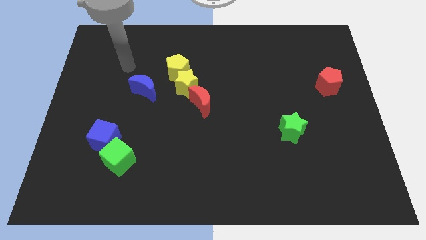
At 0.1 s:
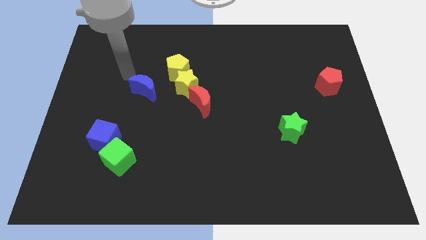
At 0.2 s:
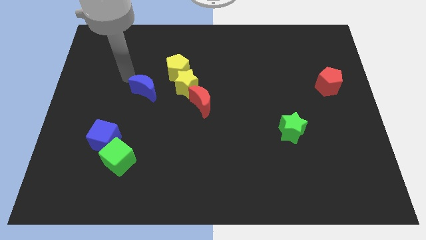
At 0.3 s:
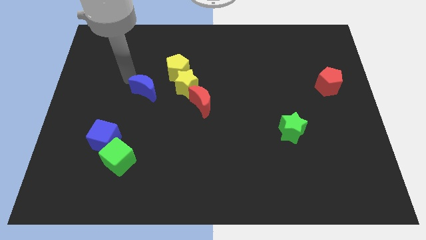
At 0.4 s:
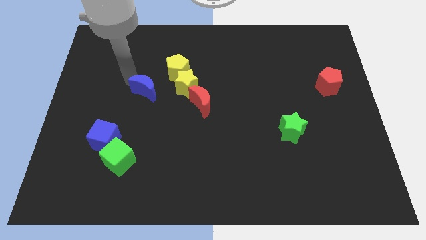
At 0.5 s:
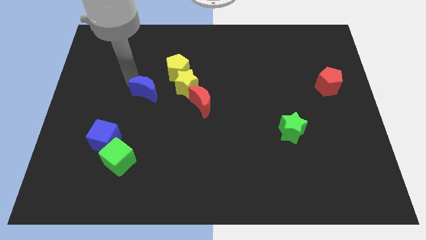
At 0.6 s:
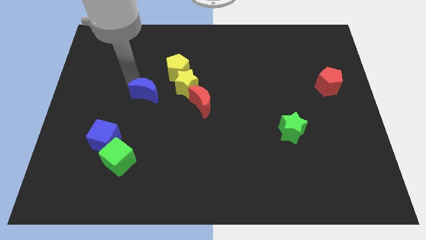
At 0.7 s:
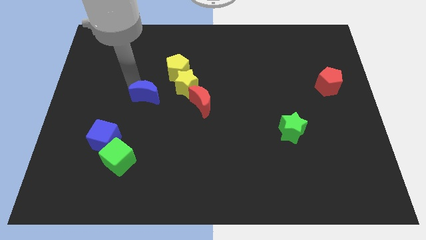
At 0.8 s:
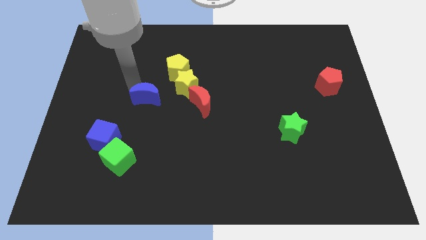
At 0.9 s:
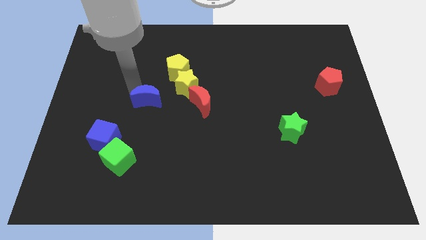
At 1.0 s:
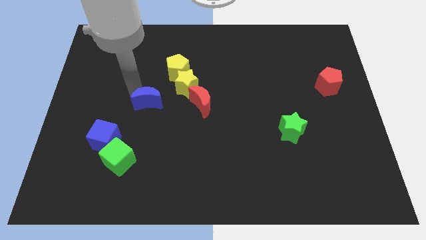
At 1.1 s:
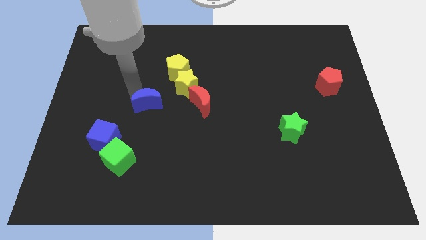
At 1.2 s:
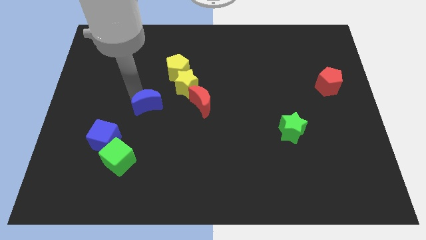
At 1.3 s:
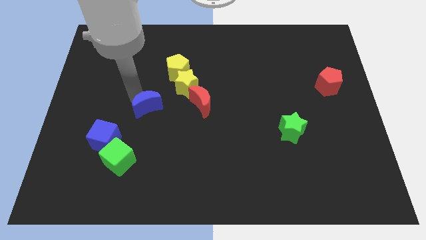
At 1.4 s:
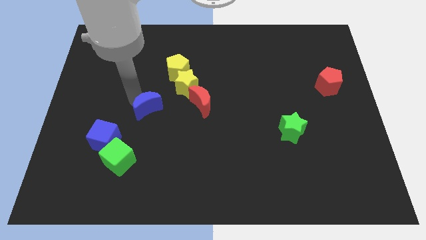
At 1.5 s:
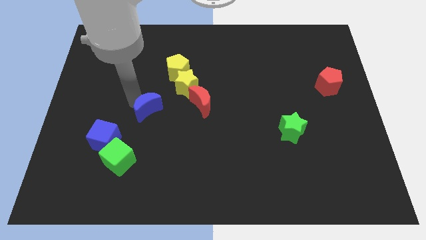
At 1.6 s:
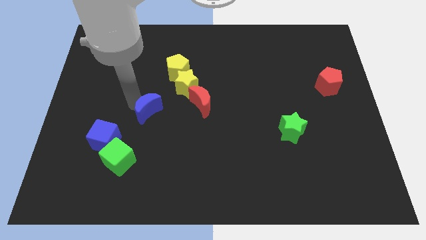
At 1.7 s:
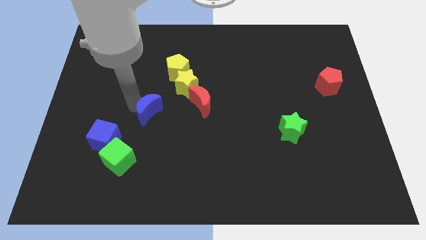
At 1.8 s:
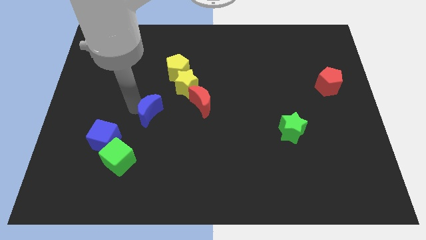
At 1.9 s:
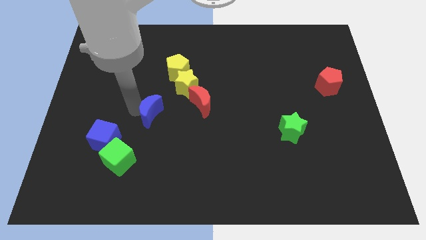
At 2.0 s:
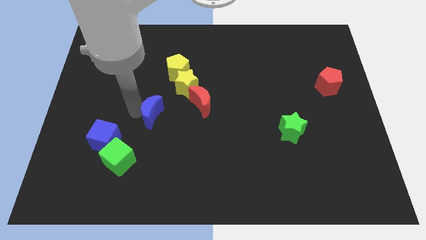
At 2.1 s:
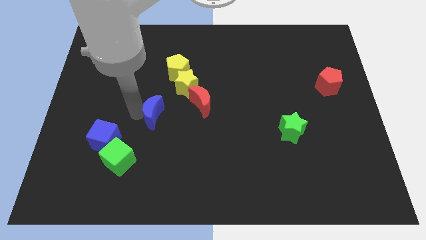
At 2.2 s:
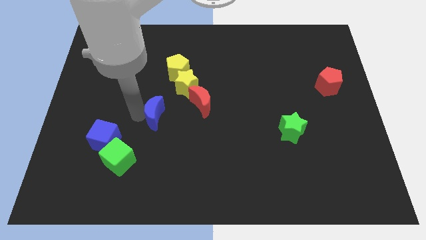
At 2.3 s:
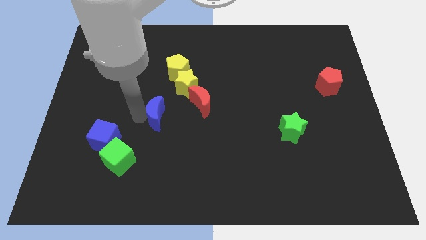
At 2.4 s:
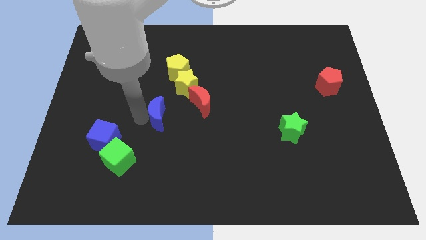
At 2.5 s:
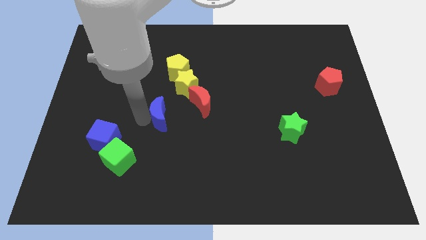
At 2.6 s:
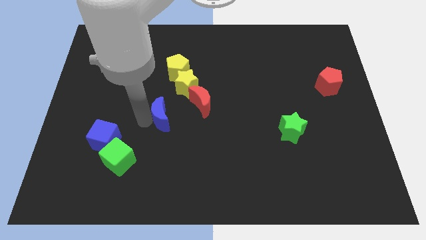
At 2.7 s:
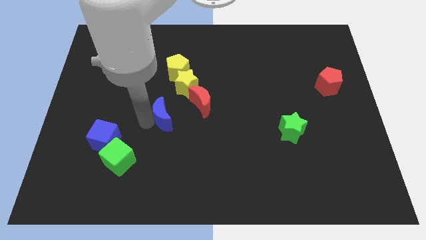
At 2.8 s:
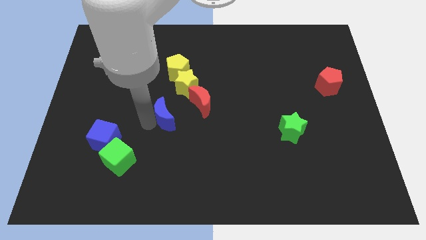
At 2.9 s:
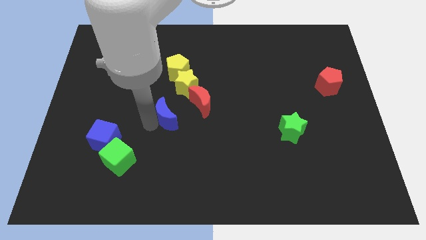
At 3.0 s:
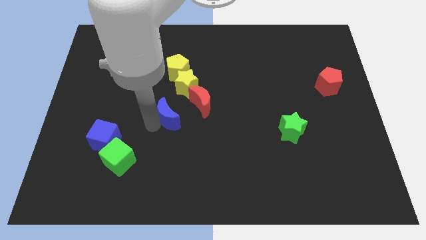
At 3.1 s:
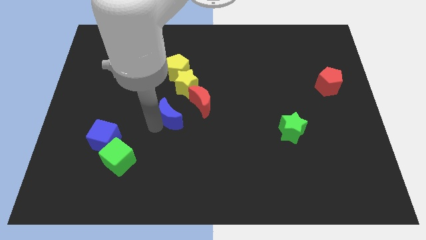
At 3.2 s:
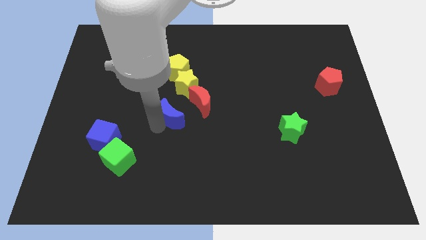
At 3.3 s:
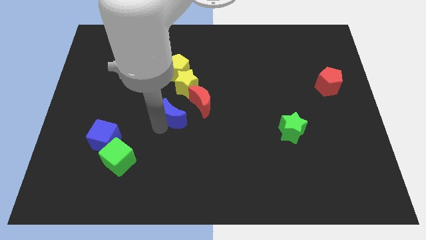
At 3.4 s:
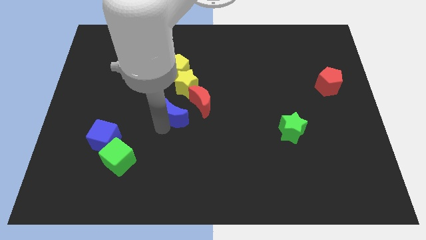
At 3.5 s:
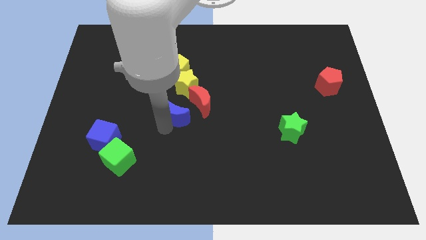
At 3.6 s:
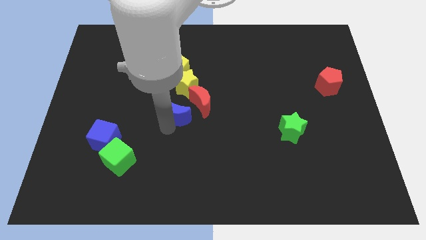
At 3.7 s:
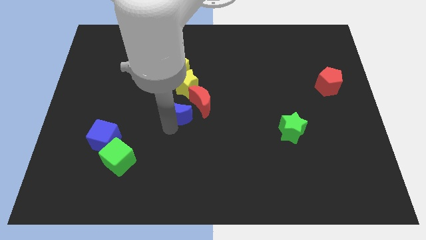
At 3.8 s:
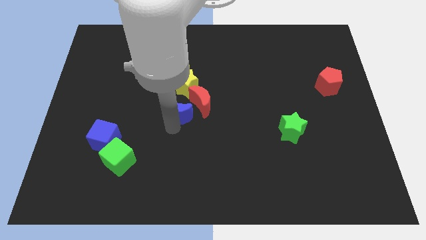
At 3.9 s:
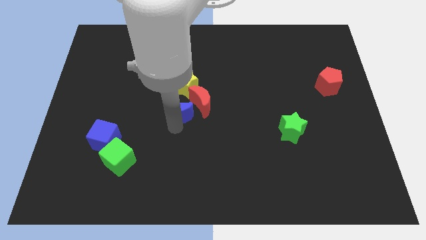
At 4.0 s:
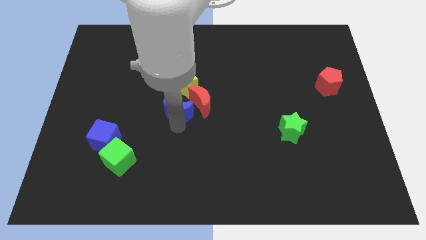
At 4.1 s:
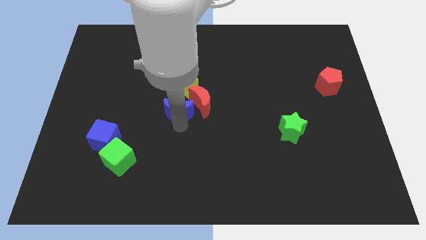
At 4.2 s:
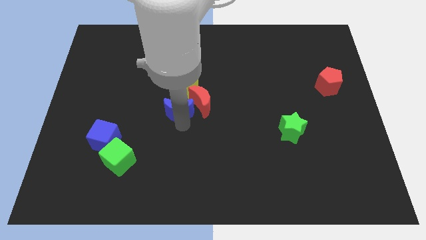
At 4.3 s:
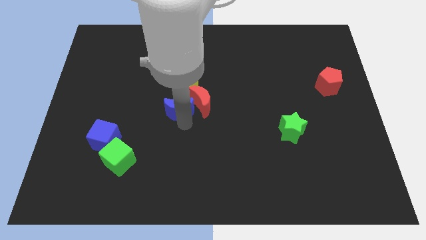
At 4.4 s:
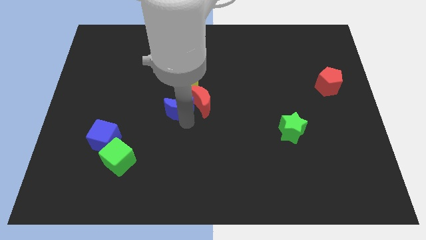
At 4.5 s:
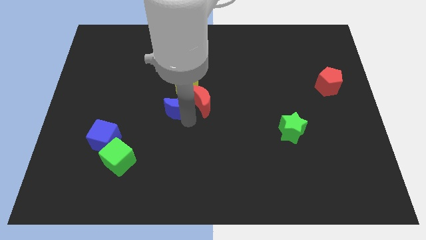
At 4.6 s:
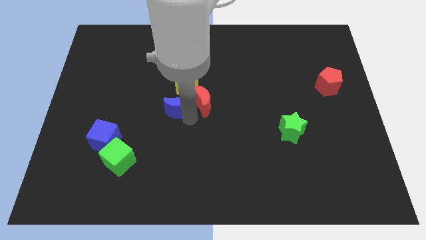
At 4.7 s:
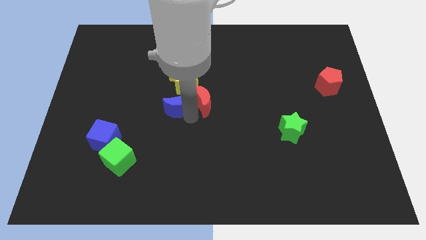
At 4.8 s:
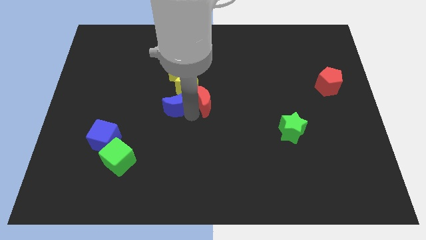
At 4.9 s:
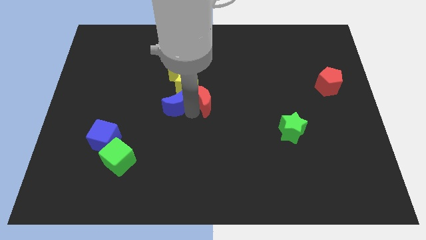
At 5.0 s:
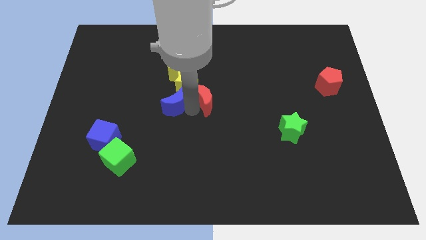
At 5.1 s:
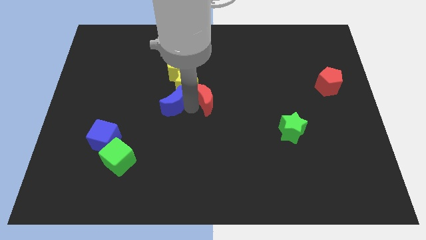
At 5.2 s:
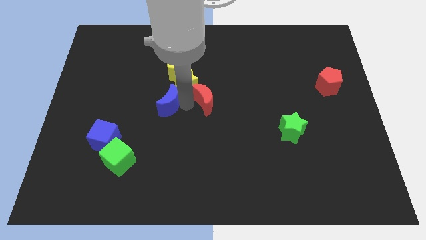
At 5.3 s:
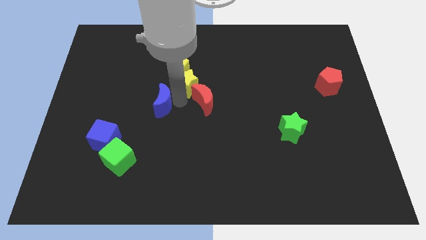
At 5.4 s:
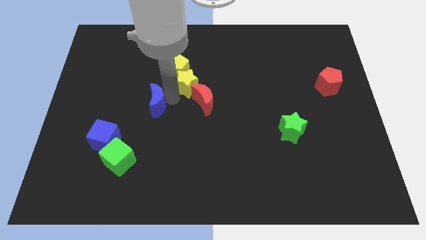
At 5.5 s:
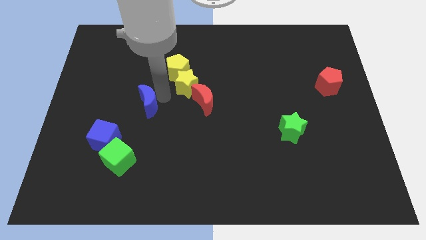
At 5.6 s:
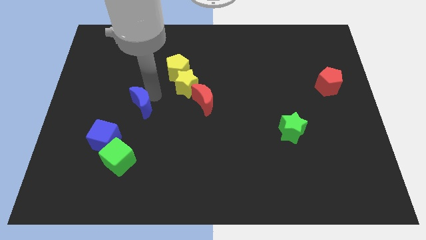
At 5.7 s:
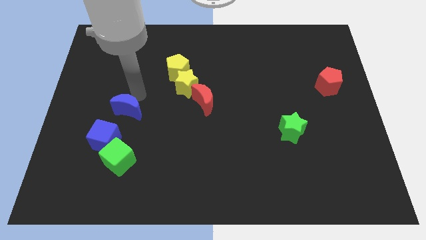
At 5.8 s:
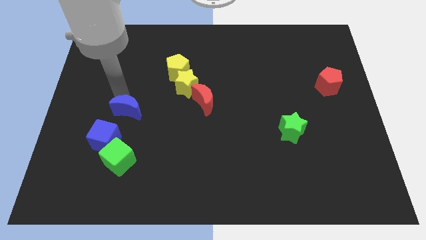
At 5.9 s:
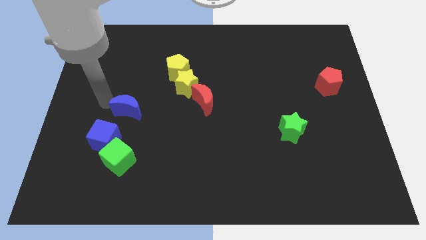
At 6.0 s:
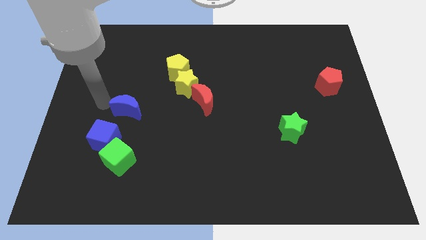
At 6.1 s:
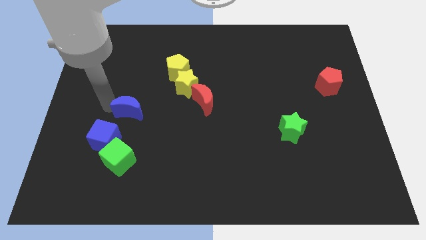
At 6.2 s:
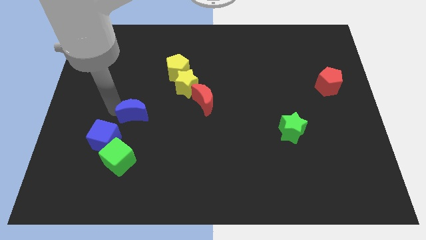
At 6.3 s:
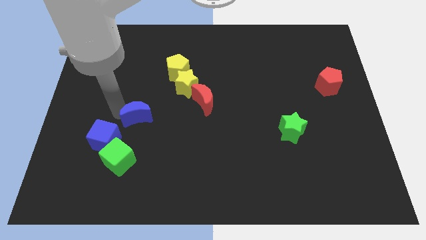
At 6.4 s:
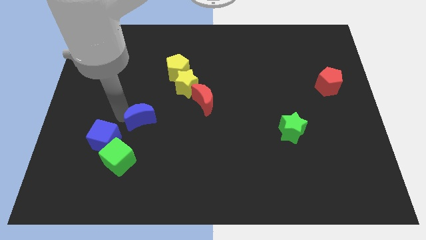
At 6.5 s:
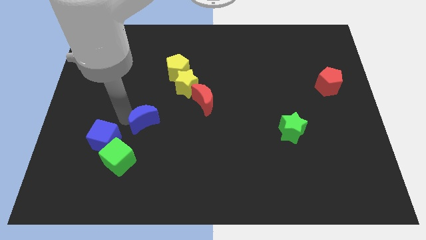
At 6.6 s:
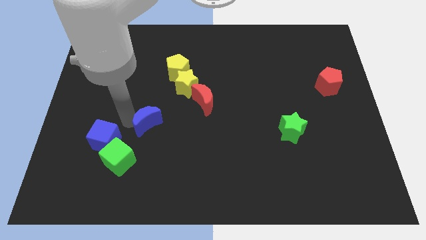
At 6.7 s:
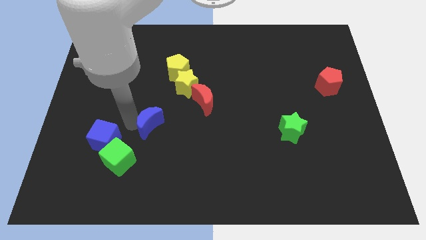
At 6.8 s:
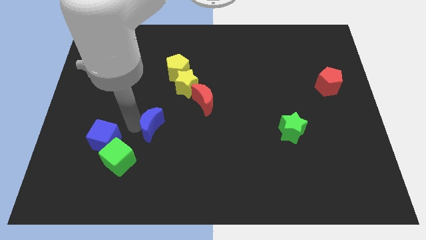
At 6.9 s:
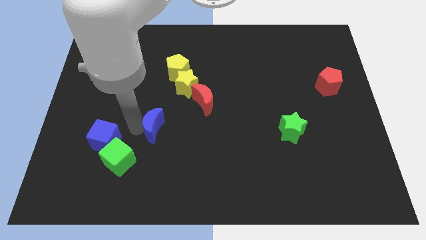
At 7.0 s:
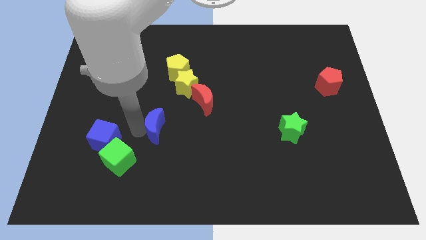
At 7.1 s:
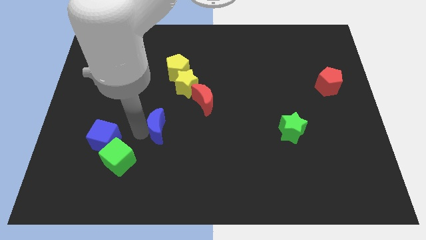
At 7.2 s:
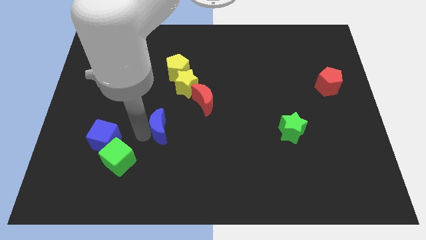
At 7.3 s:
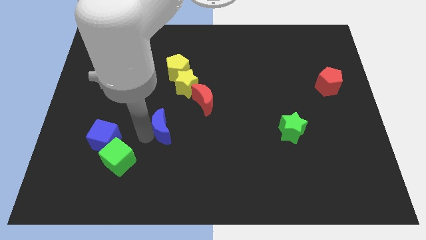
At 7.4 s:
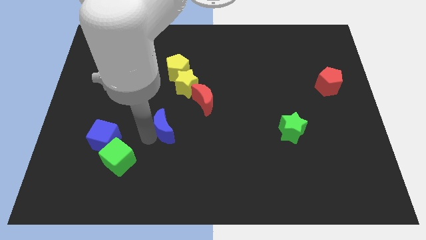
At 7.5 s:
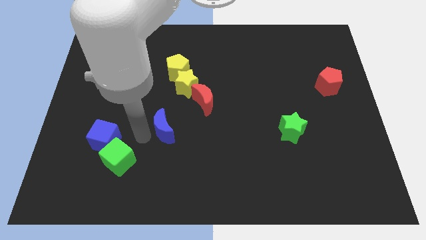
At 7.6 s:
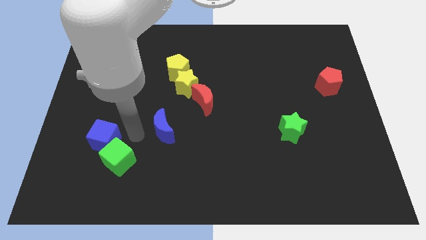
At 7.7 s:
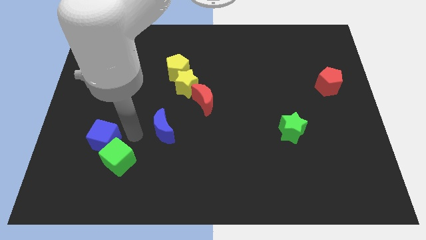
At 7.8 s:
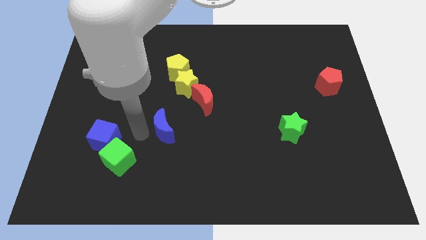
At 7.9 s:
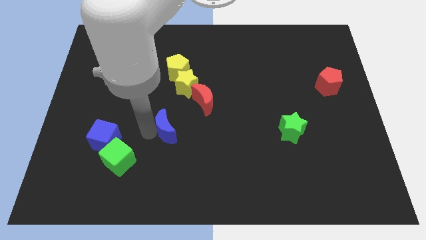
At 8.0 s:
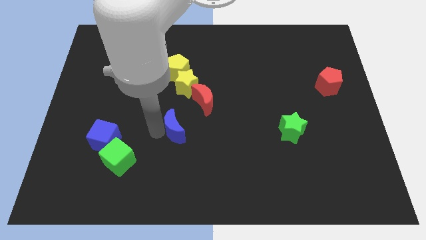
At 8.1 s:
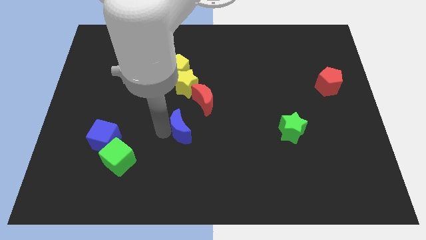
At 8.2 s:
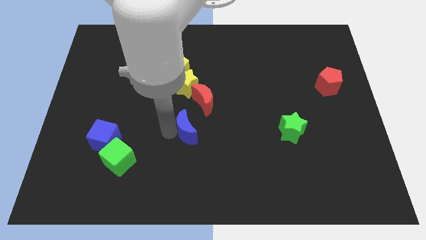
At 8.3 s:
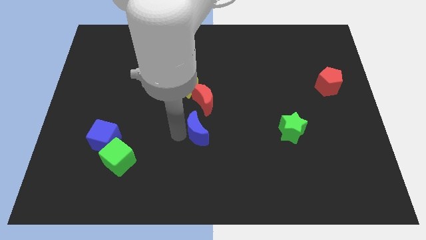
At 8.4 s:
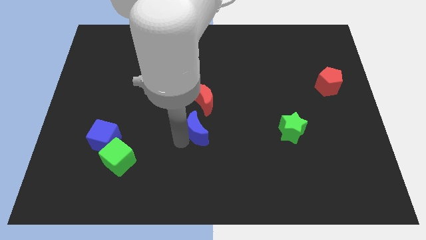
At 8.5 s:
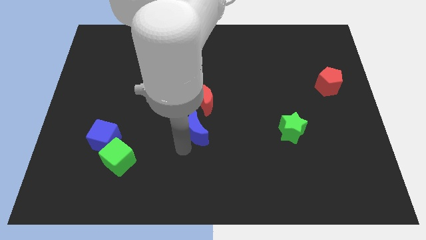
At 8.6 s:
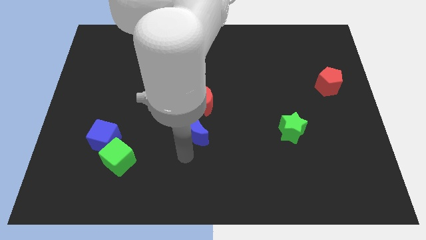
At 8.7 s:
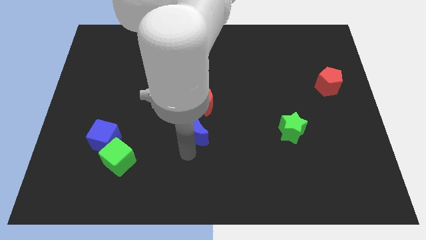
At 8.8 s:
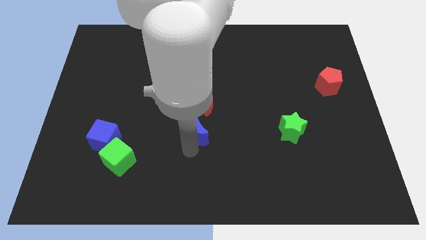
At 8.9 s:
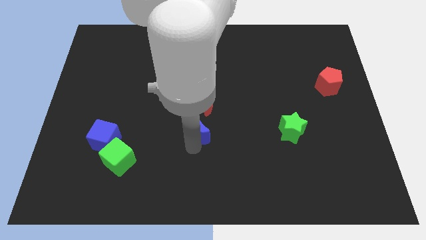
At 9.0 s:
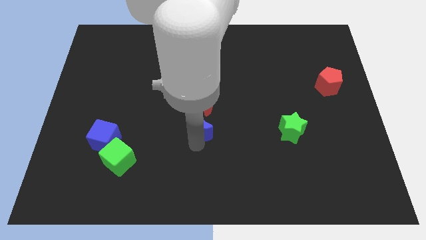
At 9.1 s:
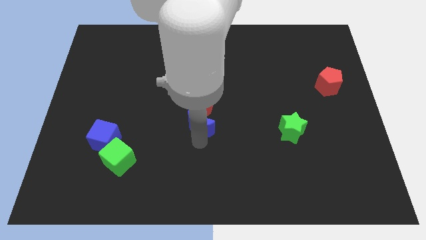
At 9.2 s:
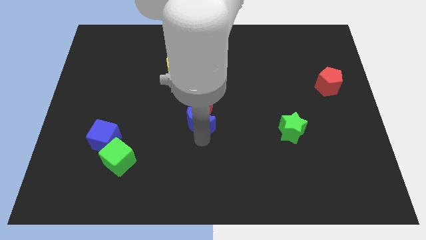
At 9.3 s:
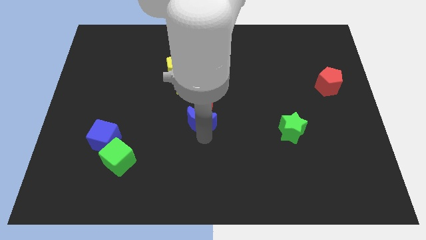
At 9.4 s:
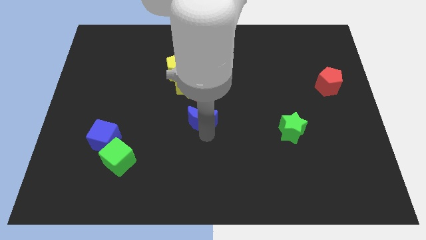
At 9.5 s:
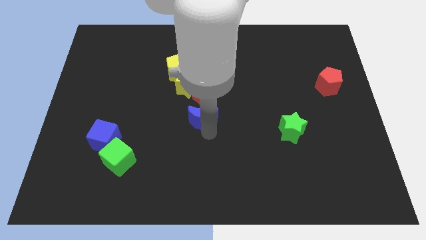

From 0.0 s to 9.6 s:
move the blue moon to the bottom right side of the yellow star
